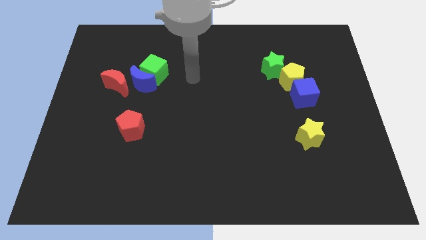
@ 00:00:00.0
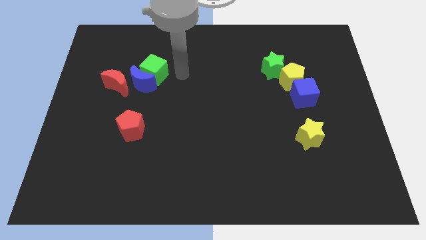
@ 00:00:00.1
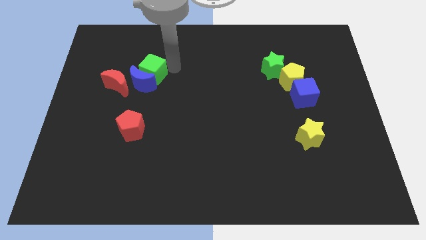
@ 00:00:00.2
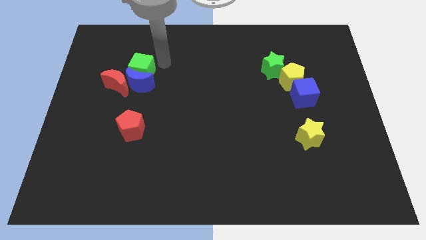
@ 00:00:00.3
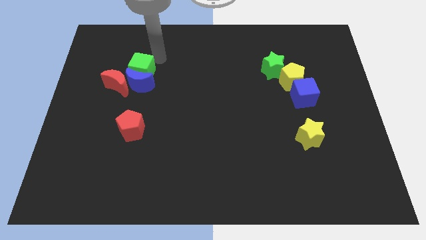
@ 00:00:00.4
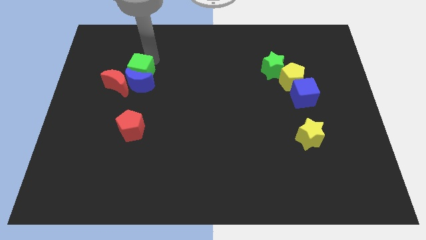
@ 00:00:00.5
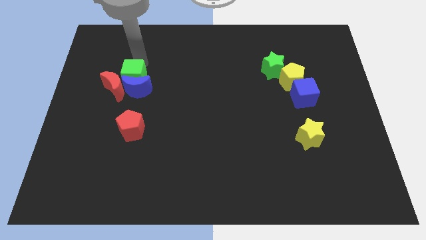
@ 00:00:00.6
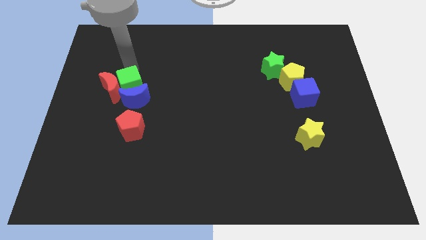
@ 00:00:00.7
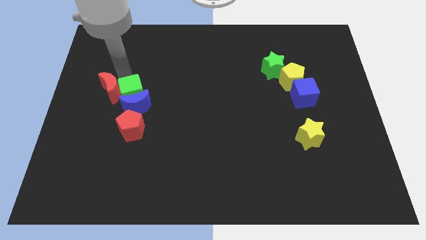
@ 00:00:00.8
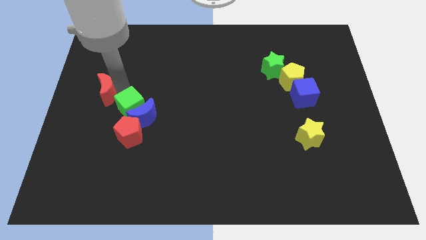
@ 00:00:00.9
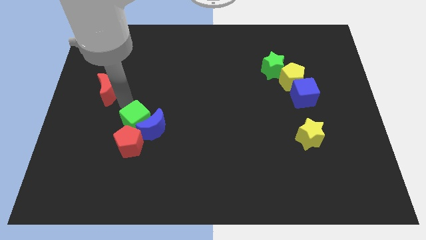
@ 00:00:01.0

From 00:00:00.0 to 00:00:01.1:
separate the blue moon from the green cube and red moon

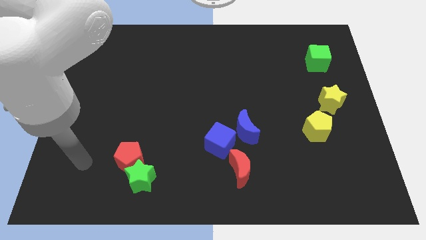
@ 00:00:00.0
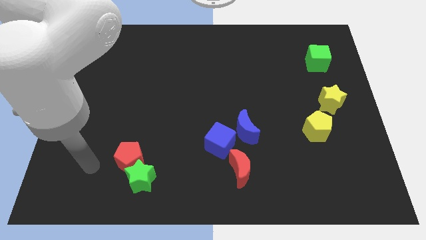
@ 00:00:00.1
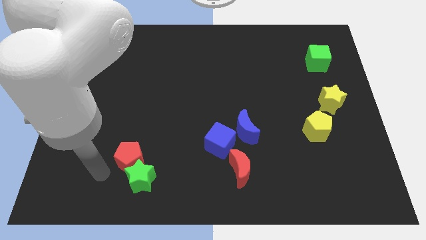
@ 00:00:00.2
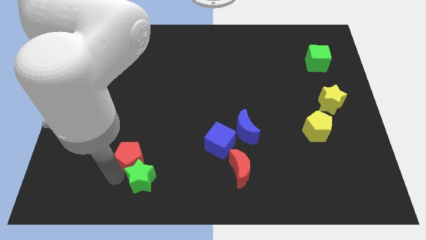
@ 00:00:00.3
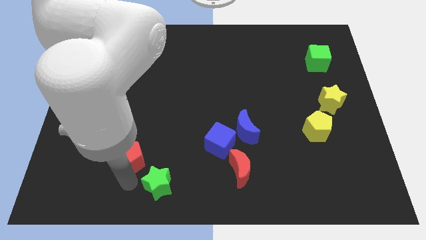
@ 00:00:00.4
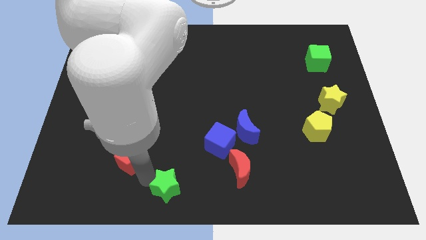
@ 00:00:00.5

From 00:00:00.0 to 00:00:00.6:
move the red pentagon away from the green star

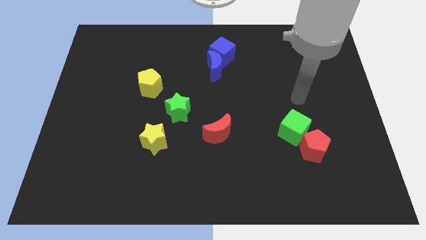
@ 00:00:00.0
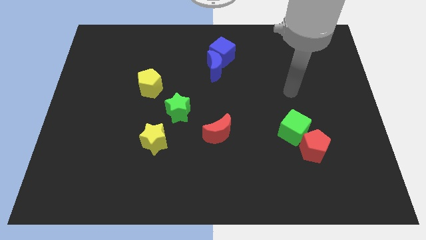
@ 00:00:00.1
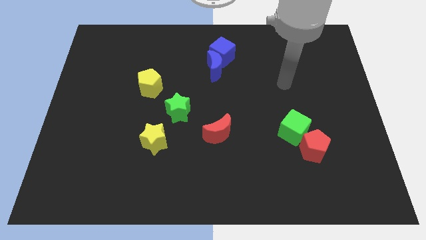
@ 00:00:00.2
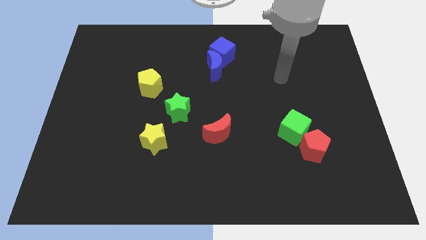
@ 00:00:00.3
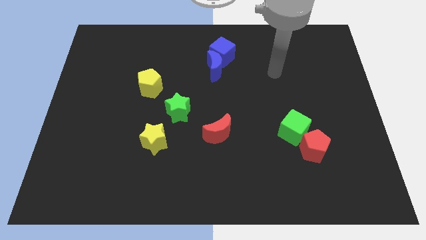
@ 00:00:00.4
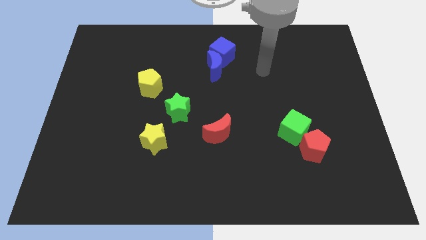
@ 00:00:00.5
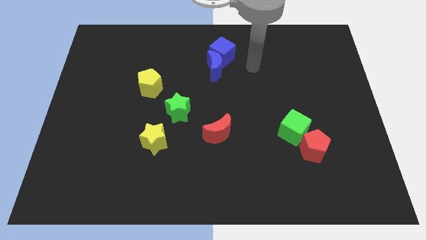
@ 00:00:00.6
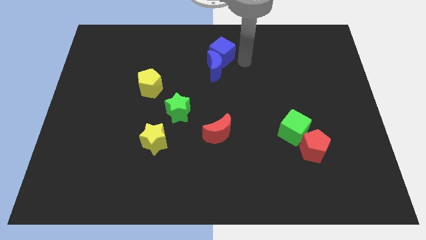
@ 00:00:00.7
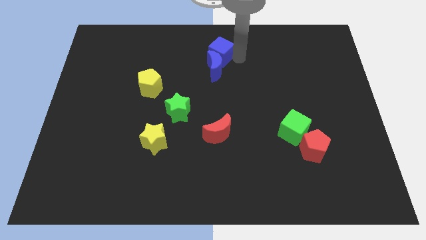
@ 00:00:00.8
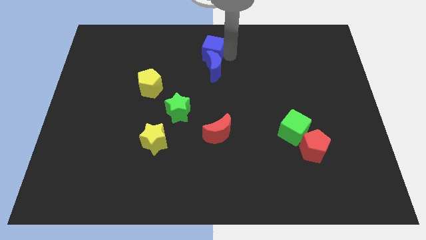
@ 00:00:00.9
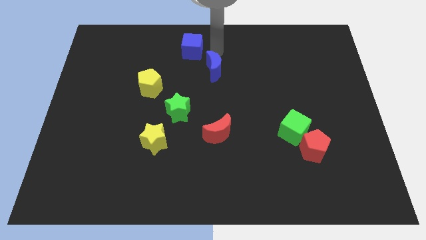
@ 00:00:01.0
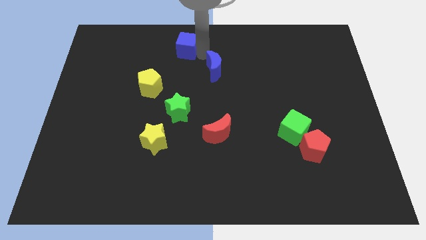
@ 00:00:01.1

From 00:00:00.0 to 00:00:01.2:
move the blue moon away from the blue cube

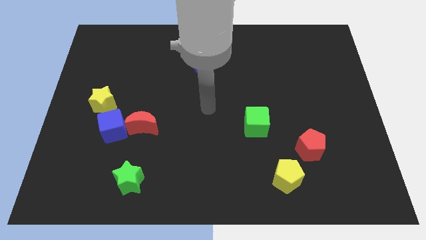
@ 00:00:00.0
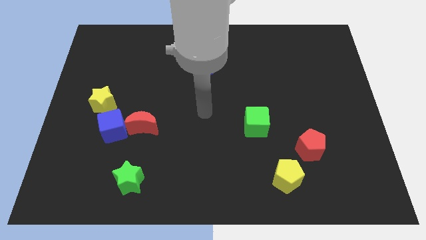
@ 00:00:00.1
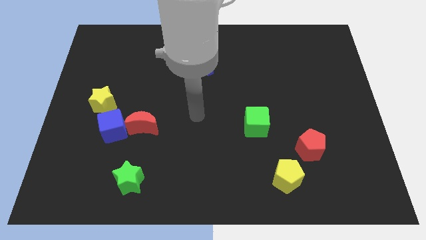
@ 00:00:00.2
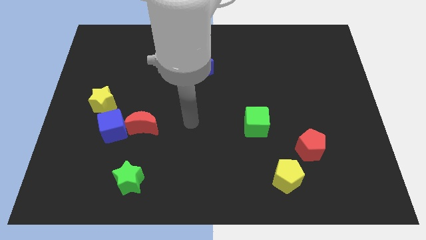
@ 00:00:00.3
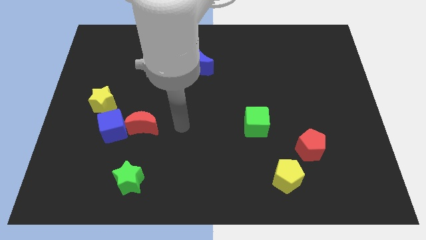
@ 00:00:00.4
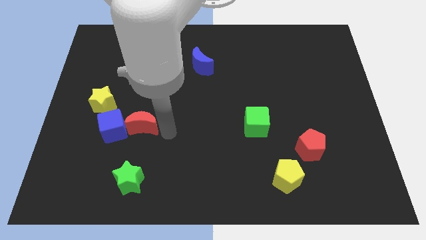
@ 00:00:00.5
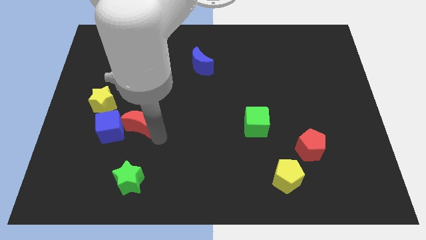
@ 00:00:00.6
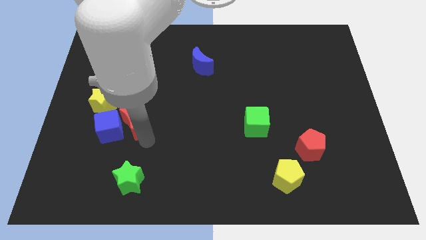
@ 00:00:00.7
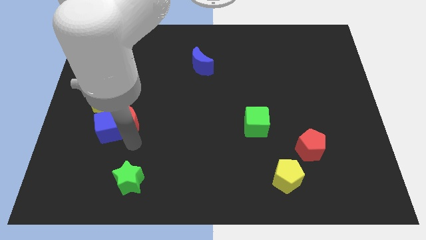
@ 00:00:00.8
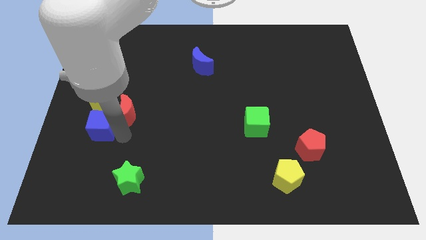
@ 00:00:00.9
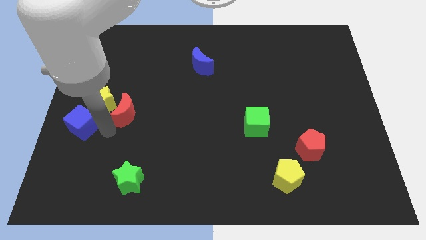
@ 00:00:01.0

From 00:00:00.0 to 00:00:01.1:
separate the red moon from the blue cube

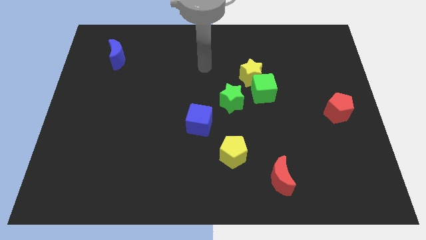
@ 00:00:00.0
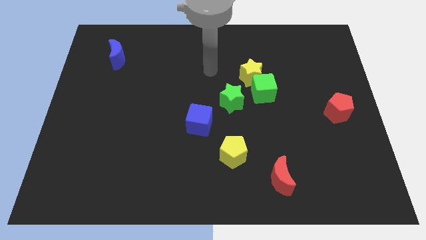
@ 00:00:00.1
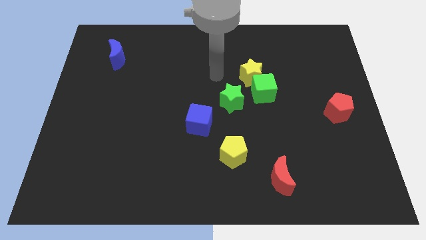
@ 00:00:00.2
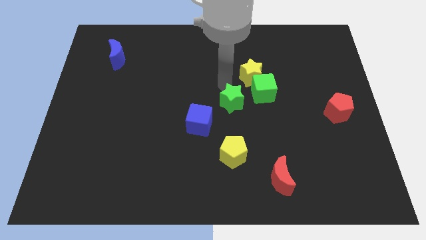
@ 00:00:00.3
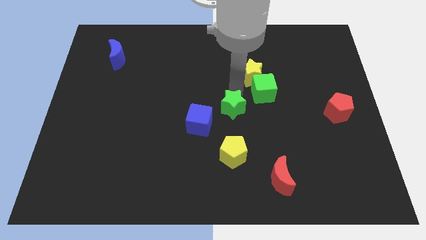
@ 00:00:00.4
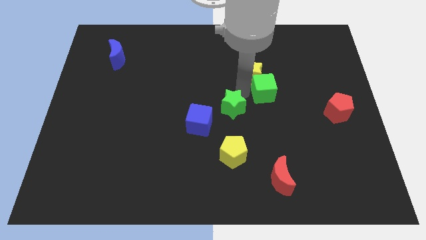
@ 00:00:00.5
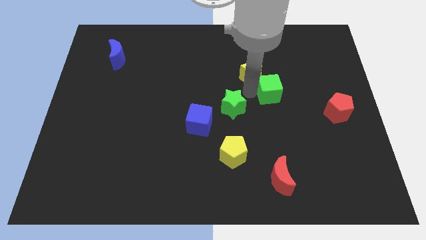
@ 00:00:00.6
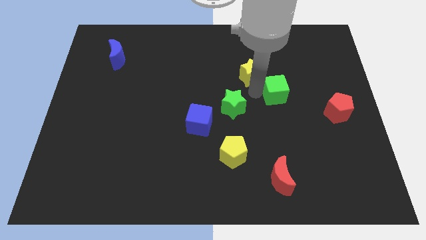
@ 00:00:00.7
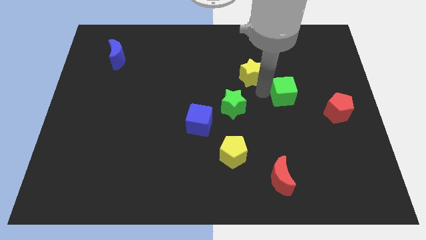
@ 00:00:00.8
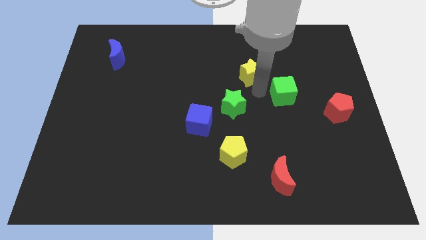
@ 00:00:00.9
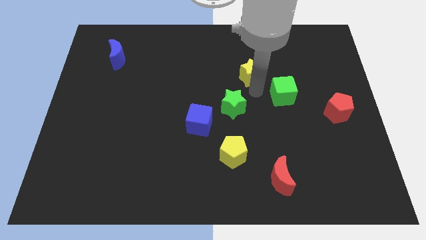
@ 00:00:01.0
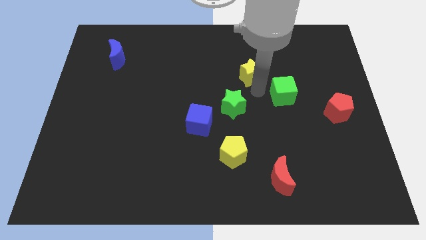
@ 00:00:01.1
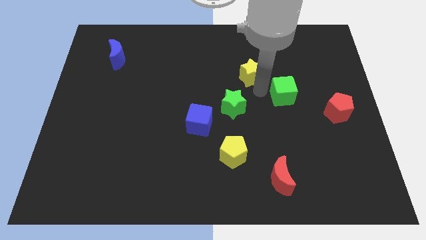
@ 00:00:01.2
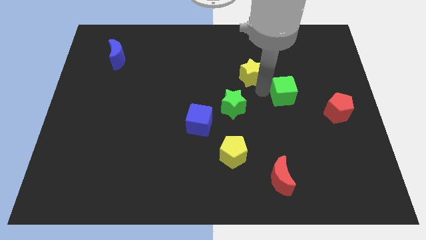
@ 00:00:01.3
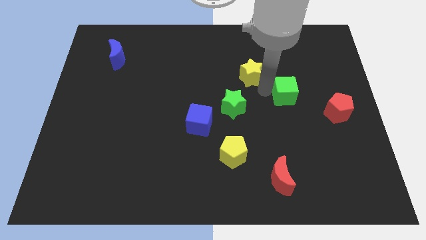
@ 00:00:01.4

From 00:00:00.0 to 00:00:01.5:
separate the green cube from the yellow star and green star

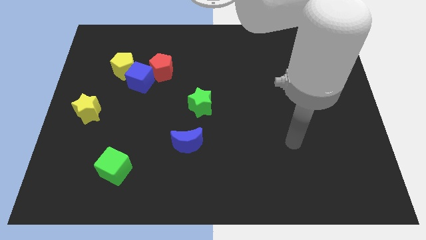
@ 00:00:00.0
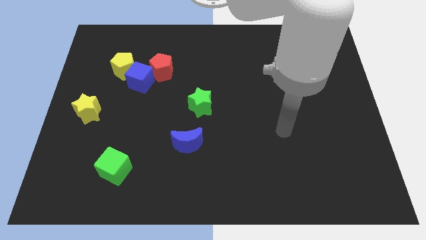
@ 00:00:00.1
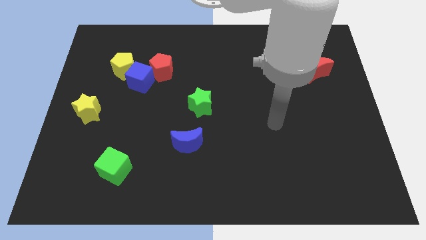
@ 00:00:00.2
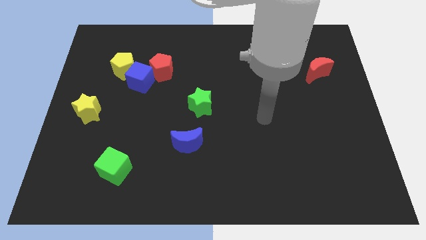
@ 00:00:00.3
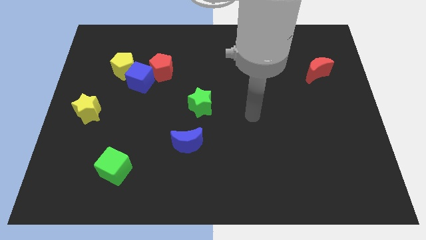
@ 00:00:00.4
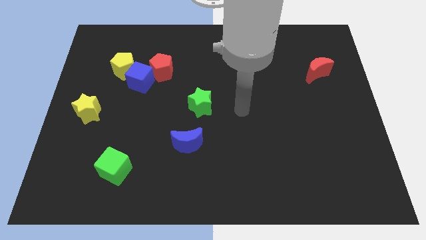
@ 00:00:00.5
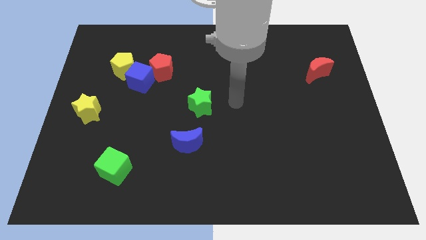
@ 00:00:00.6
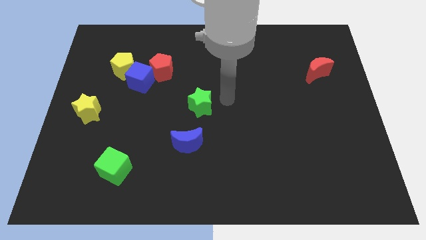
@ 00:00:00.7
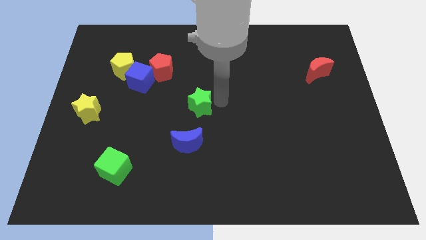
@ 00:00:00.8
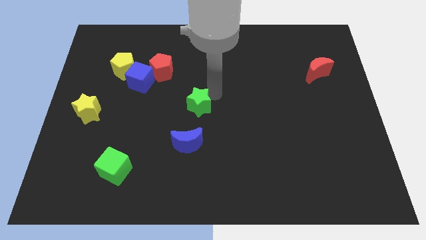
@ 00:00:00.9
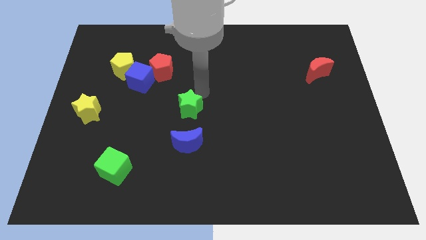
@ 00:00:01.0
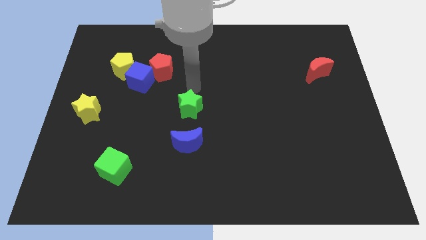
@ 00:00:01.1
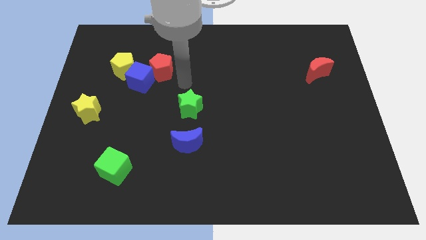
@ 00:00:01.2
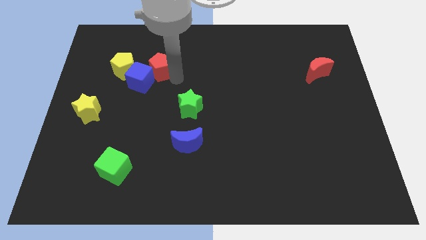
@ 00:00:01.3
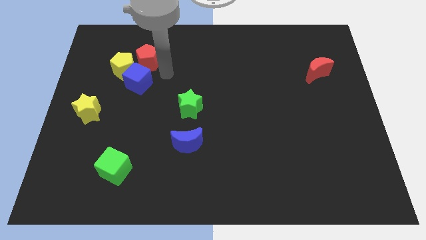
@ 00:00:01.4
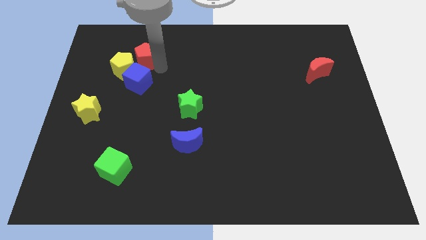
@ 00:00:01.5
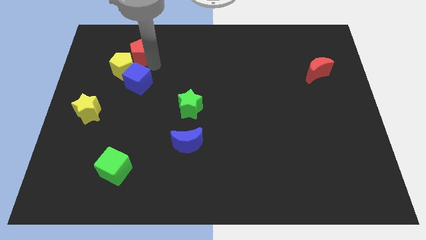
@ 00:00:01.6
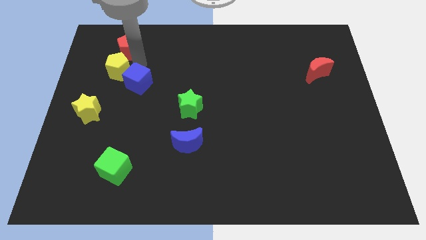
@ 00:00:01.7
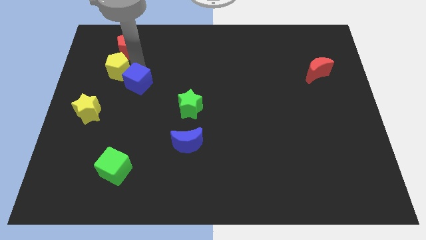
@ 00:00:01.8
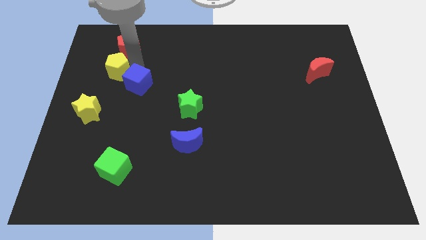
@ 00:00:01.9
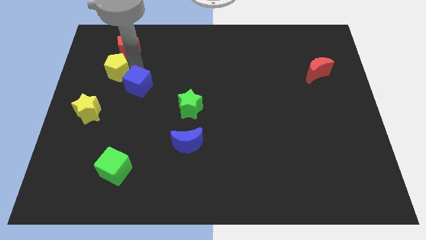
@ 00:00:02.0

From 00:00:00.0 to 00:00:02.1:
move the blue cube away from the yellow pentagon and red pentagon

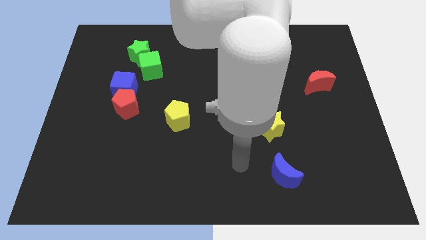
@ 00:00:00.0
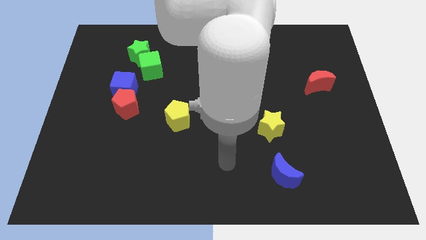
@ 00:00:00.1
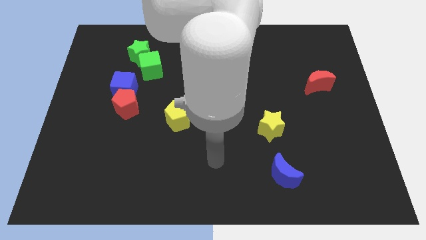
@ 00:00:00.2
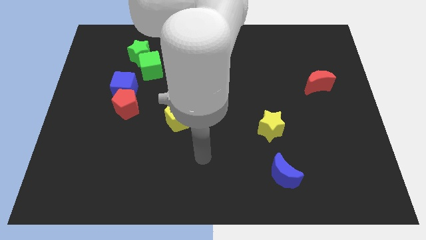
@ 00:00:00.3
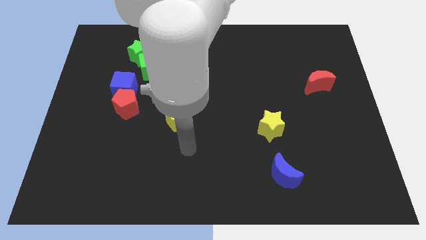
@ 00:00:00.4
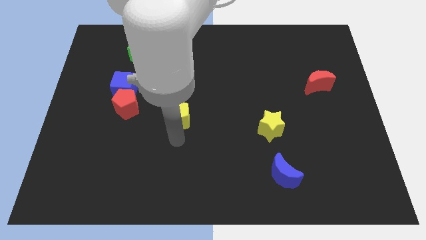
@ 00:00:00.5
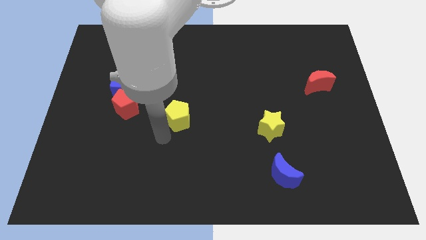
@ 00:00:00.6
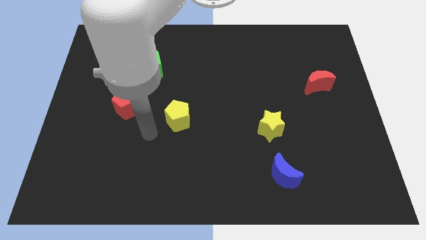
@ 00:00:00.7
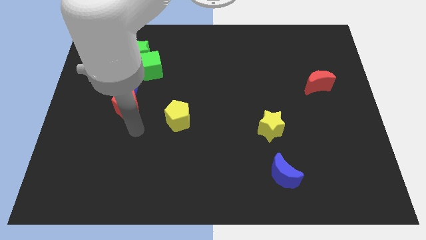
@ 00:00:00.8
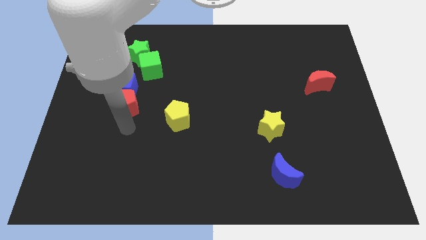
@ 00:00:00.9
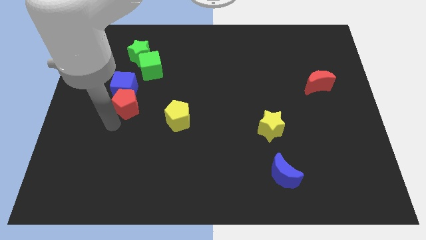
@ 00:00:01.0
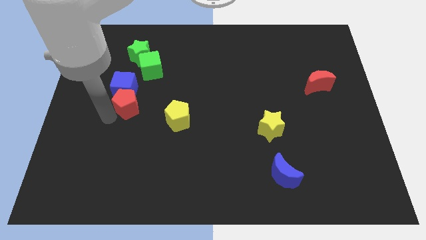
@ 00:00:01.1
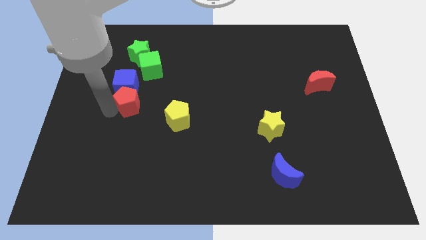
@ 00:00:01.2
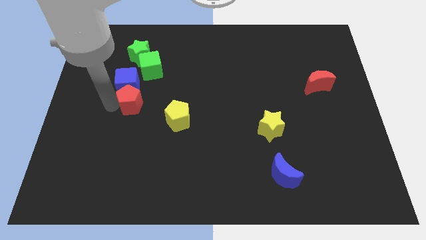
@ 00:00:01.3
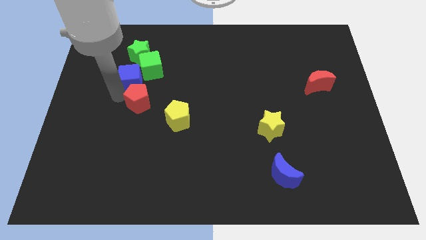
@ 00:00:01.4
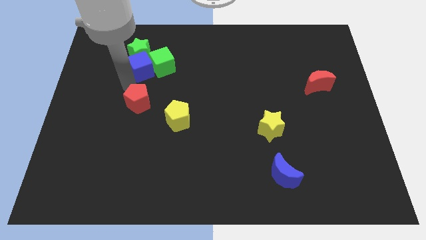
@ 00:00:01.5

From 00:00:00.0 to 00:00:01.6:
pull the red pentagon apart from the blue cube
